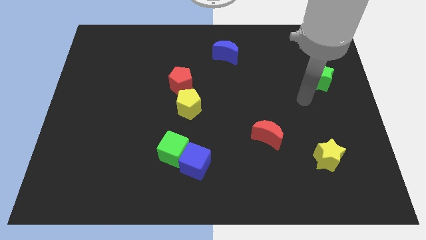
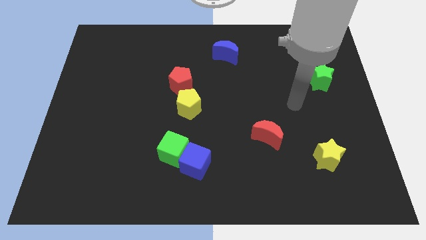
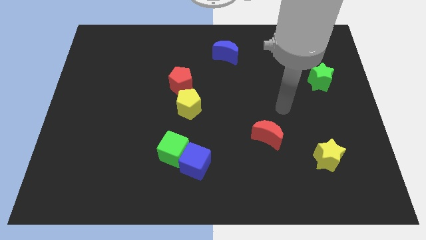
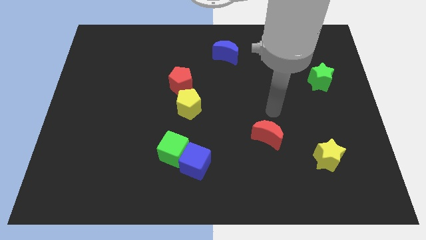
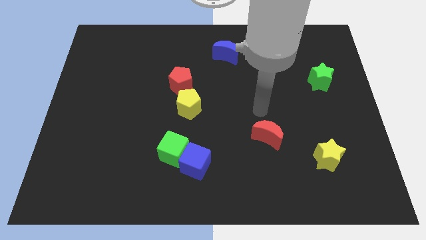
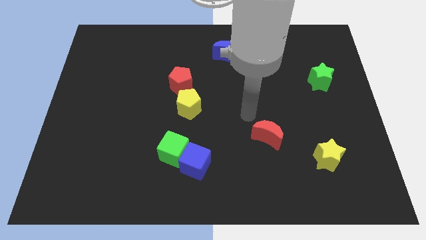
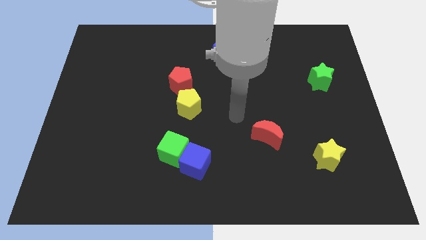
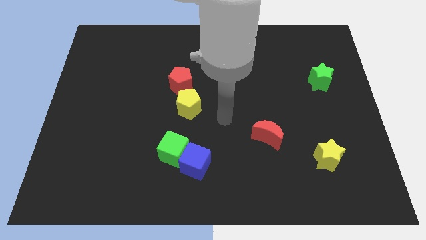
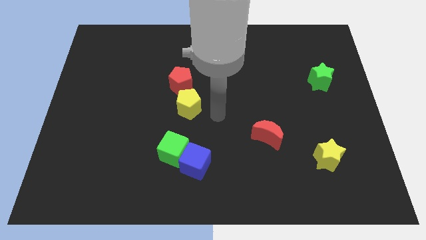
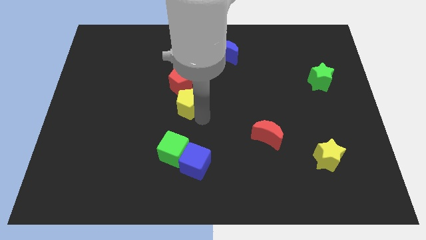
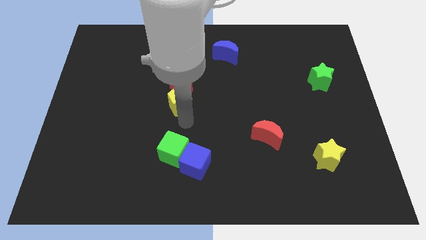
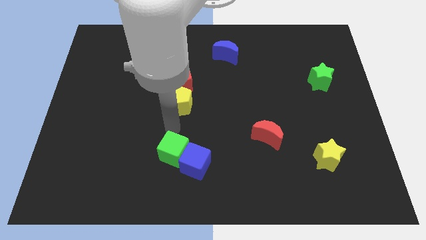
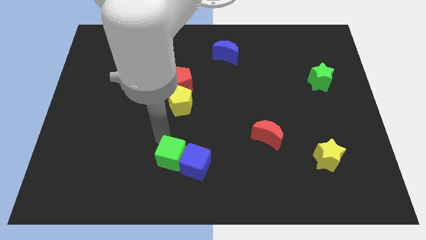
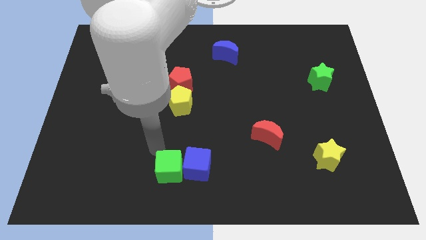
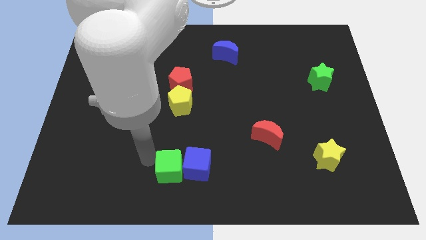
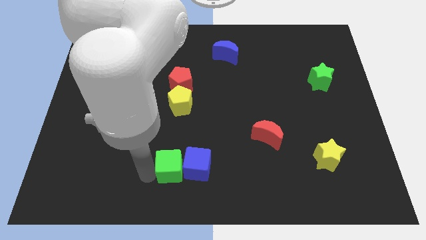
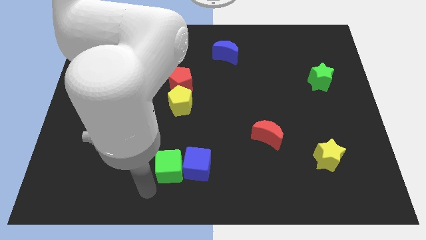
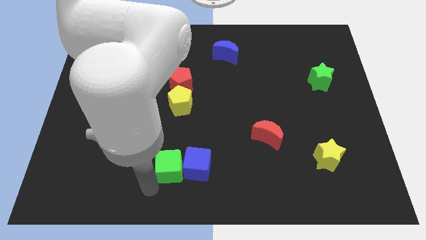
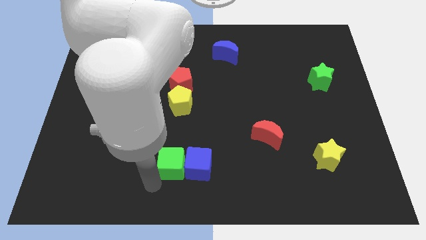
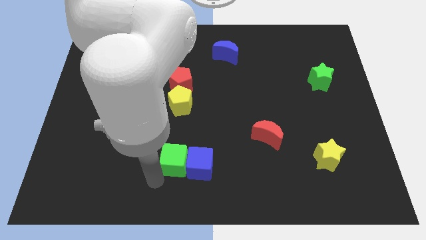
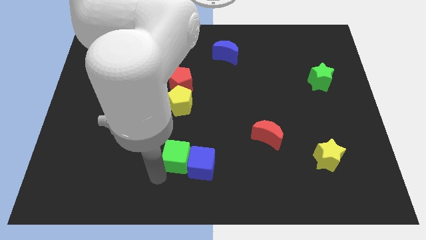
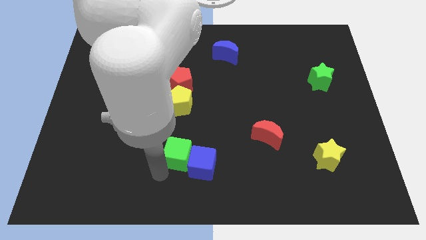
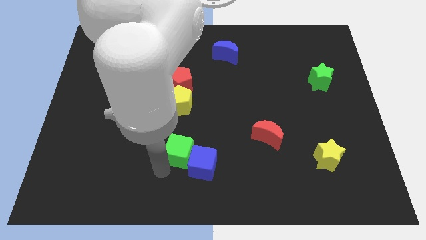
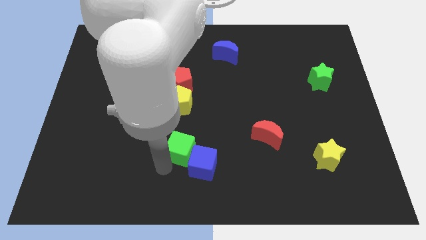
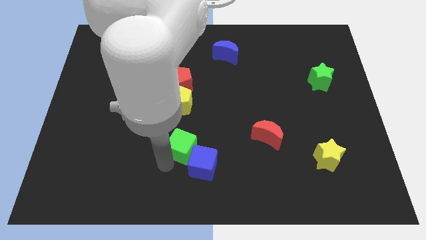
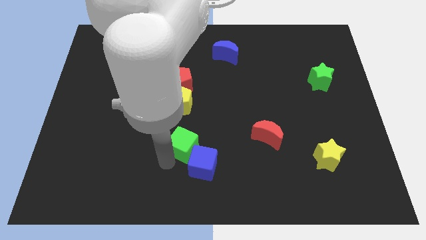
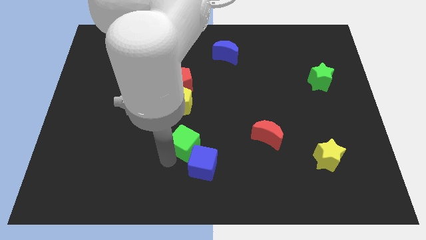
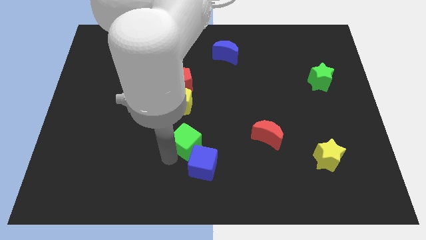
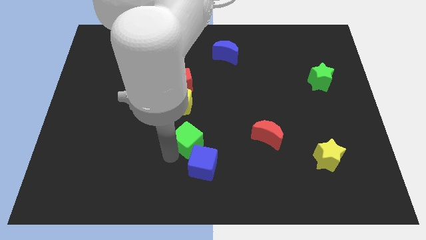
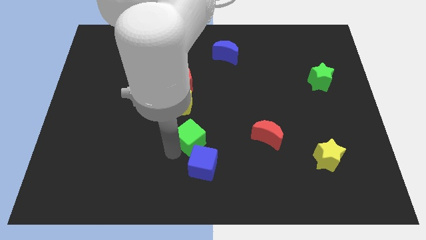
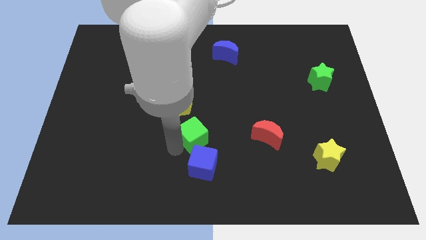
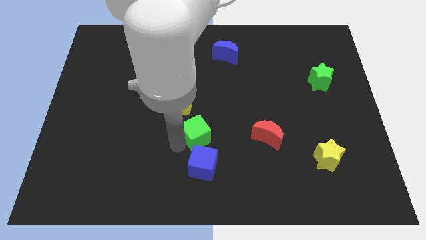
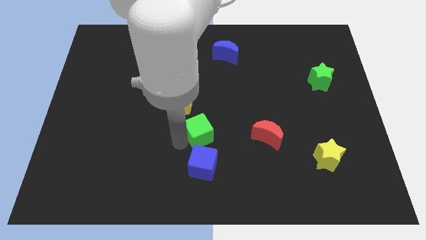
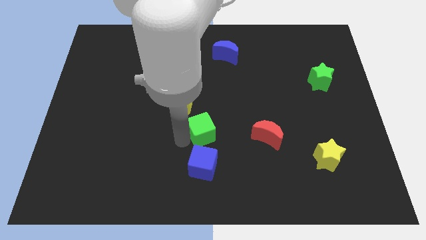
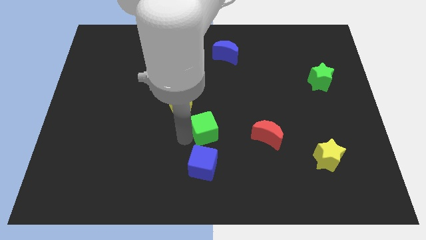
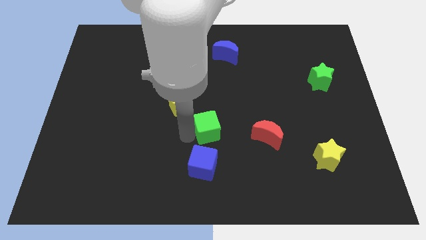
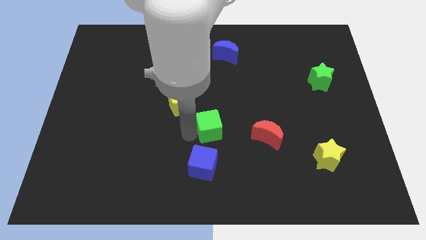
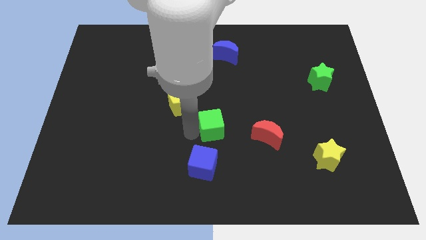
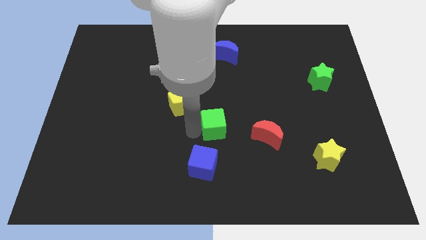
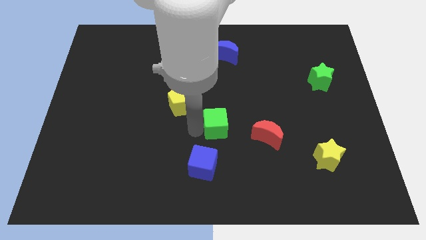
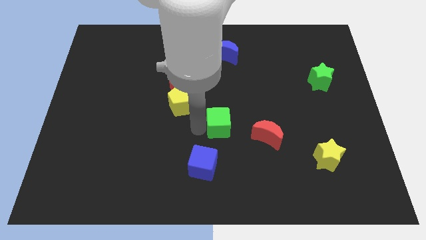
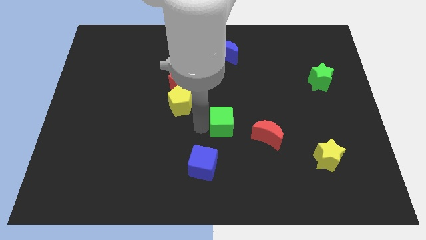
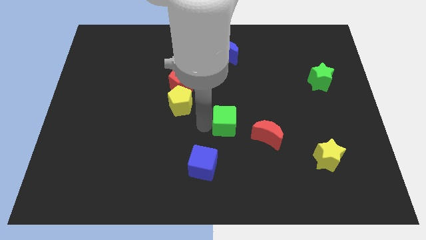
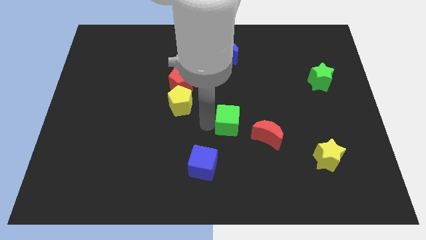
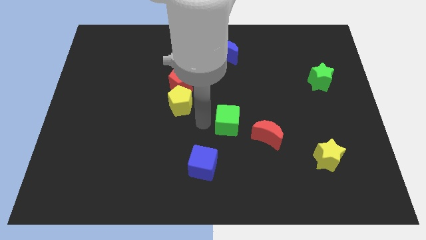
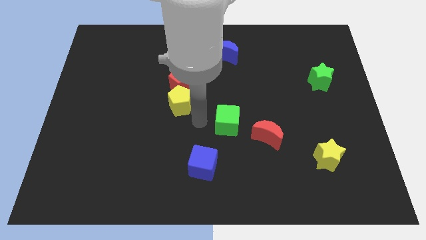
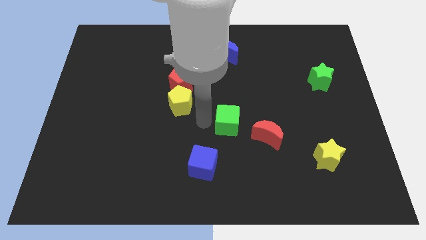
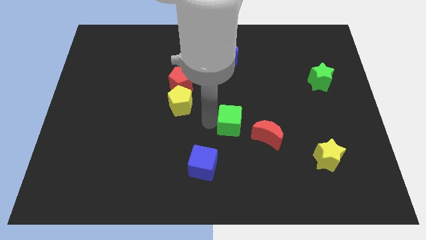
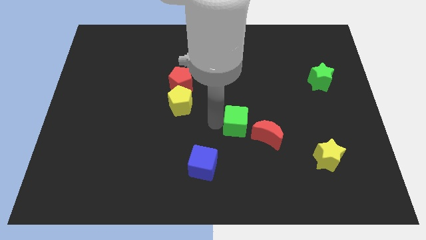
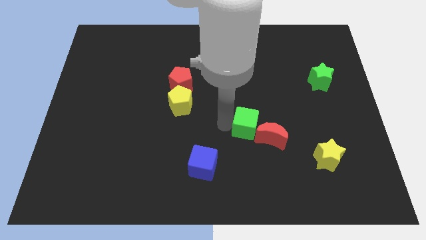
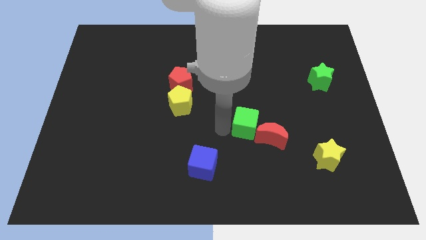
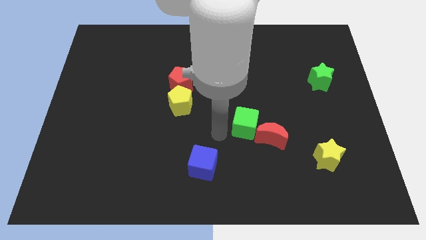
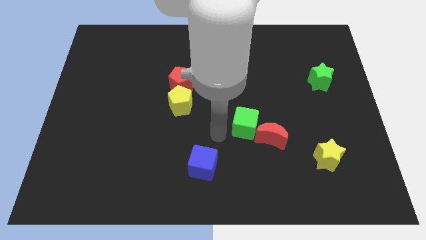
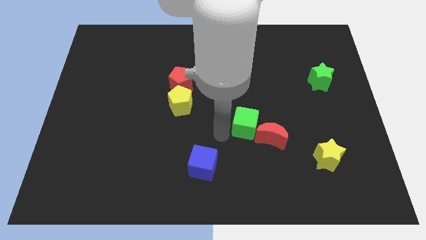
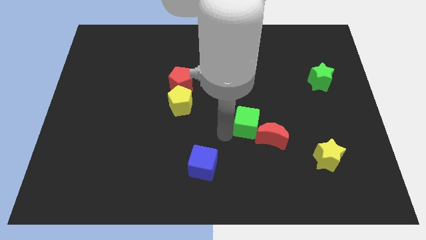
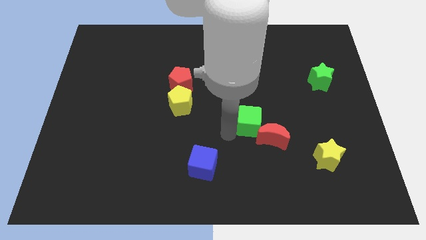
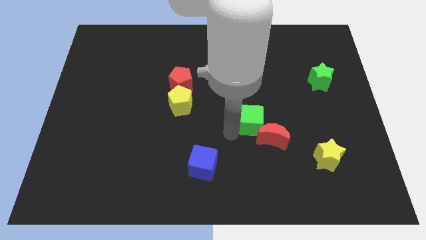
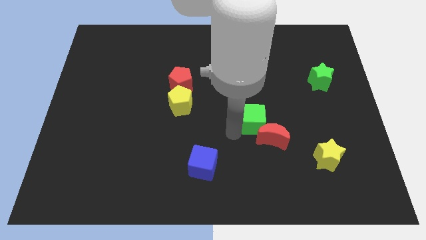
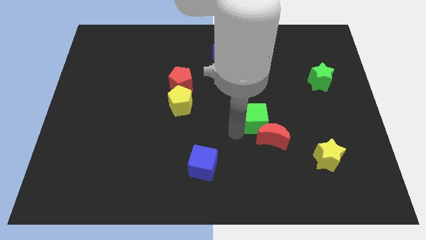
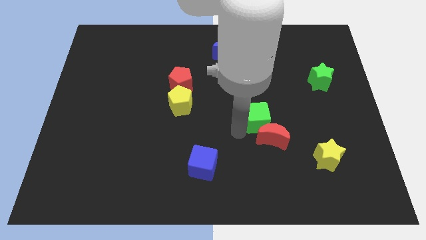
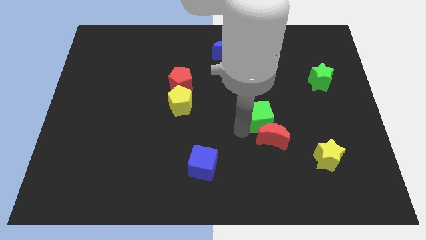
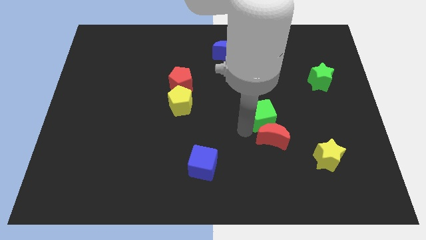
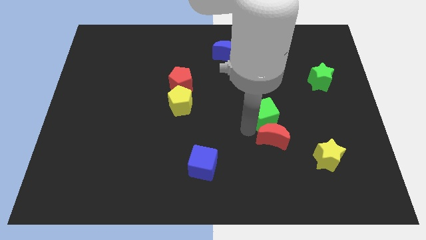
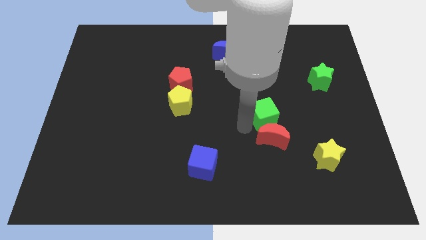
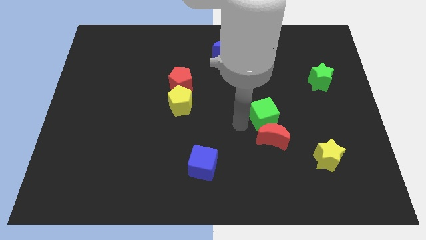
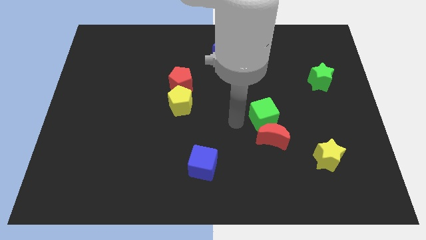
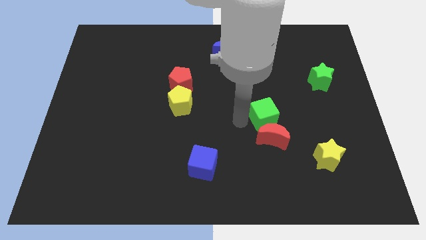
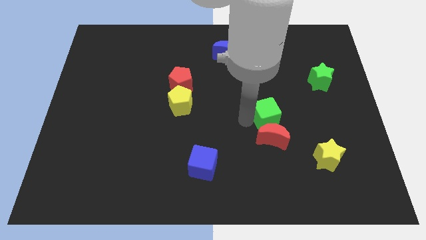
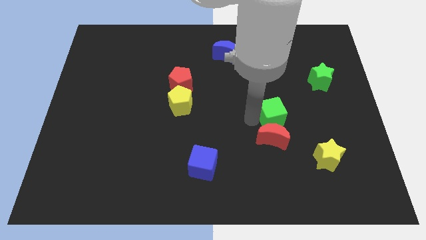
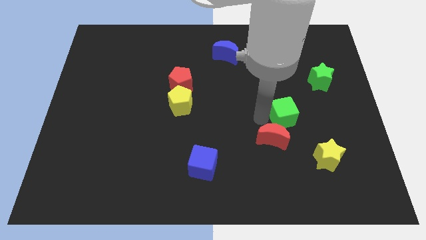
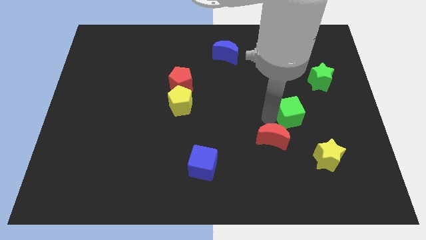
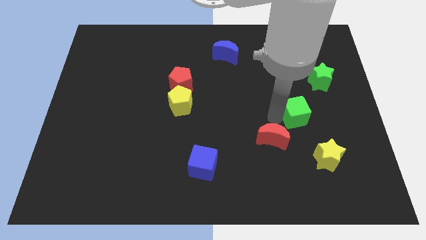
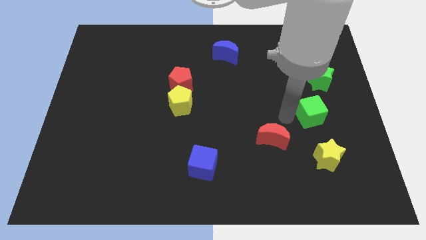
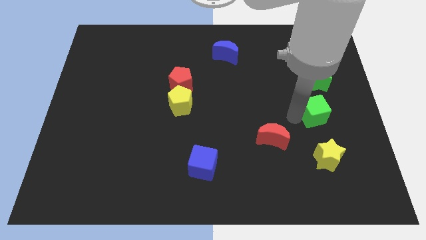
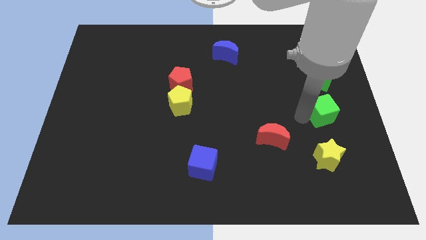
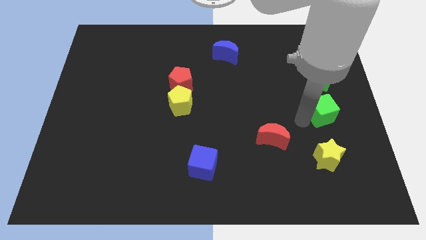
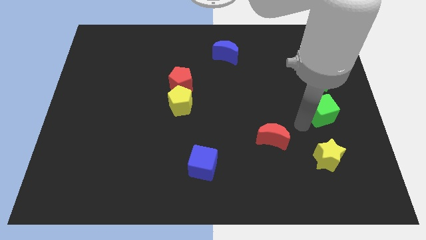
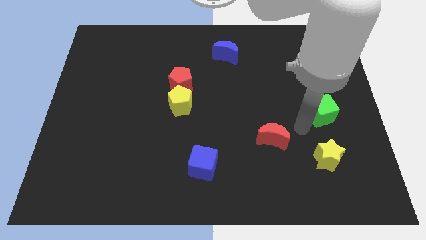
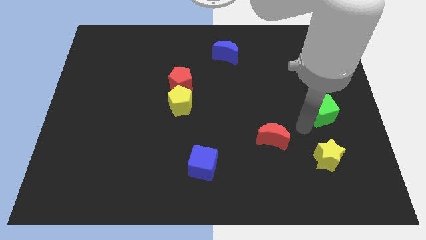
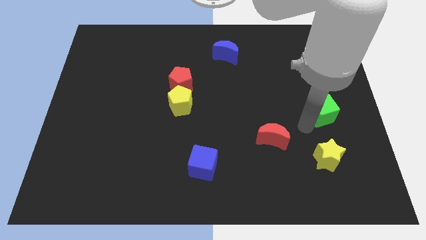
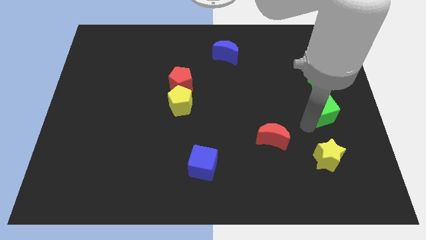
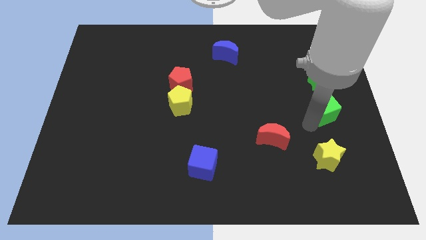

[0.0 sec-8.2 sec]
put the green cube to the center right
